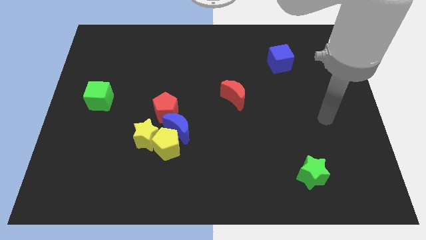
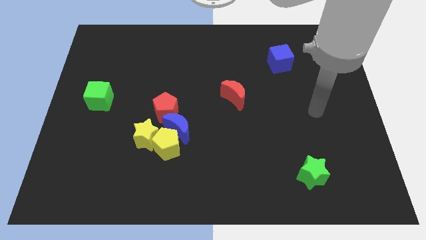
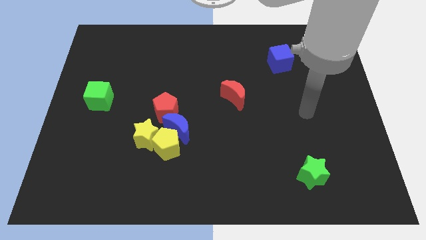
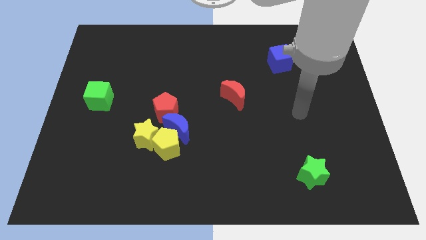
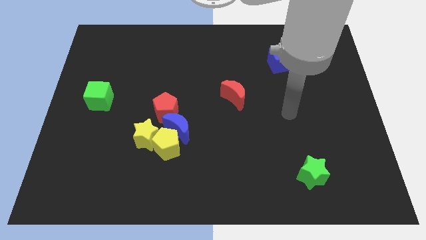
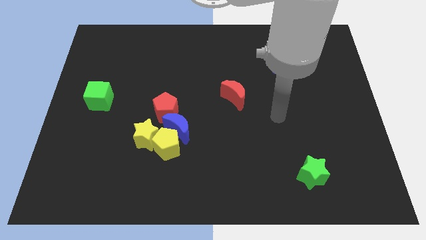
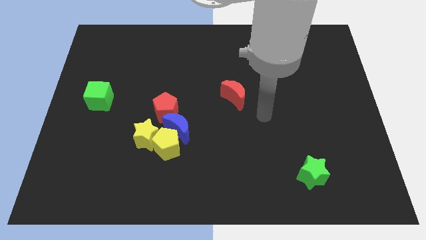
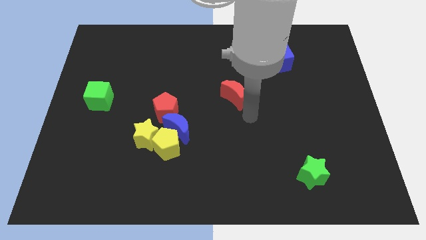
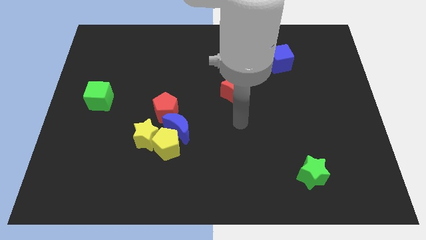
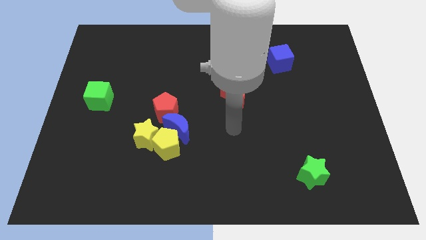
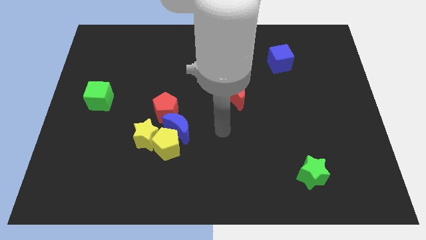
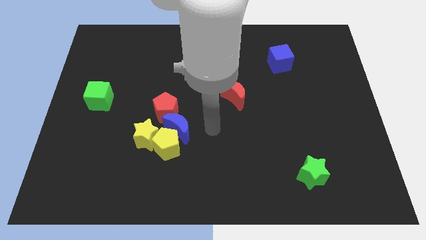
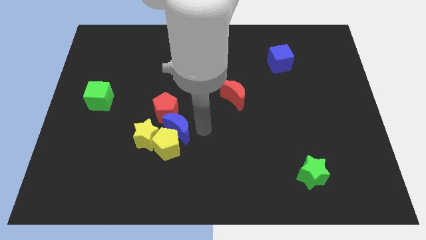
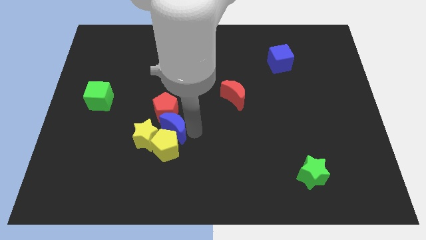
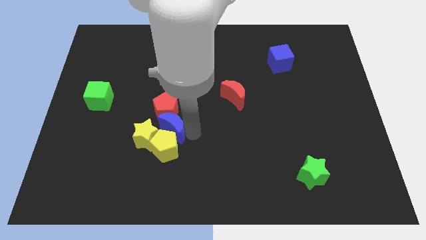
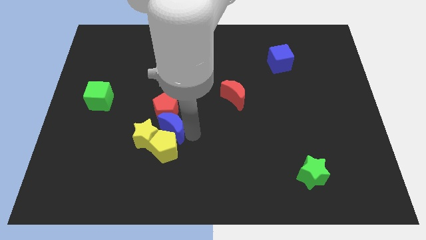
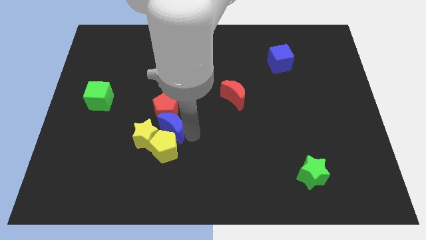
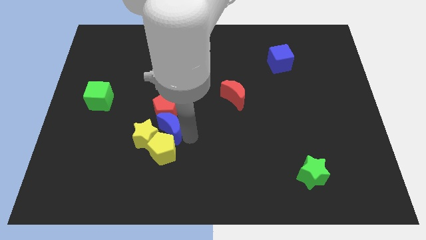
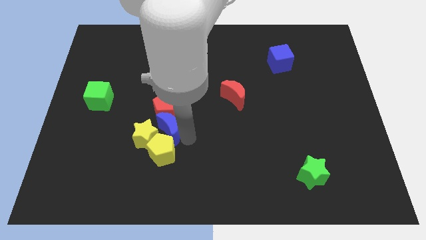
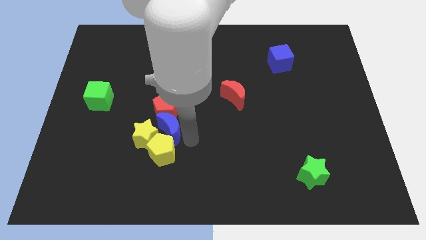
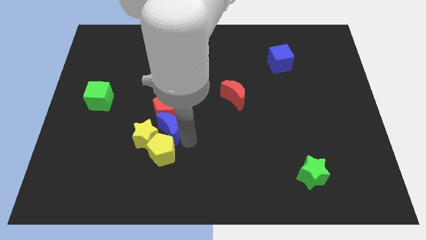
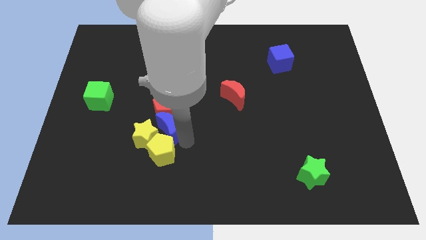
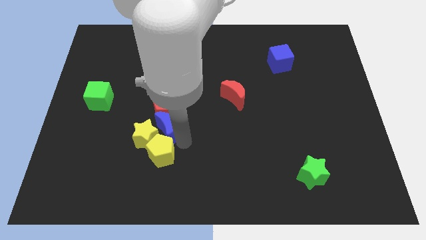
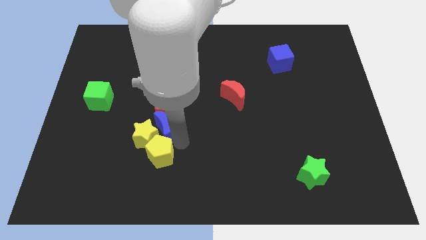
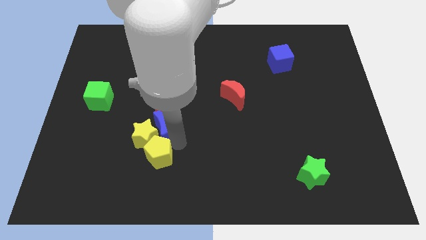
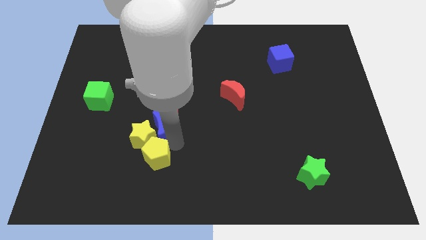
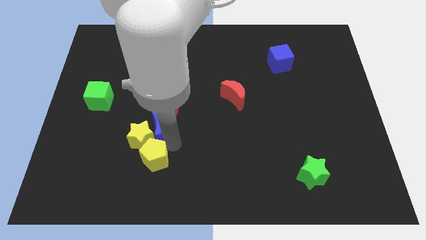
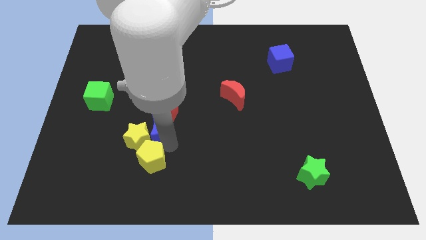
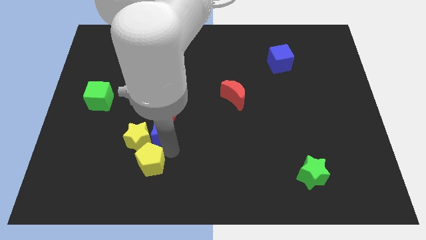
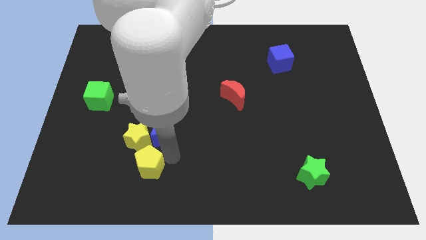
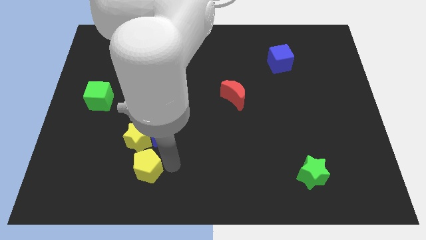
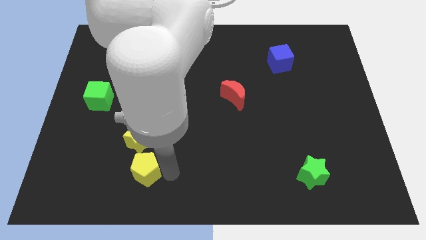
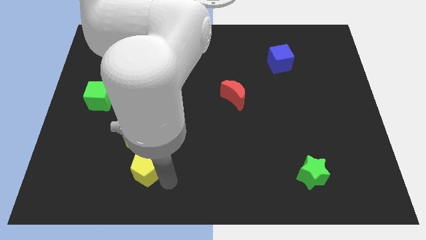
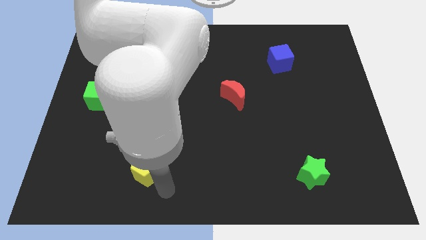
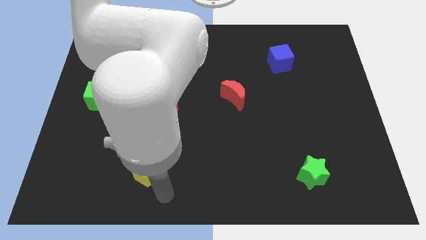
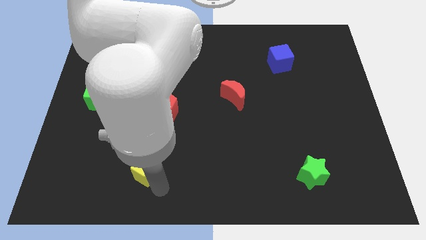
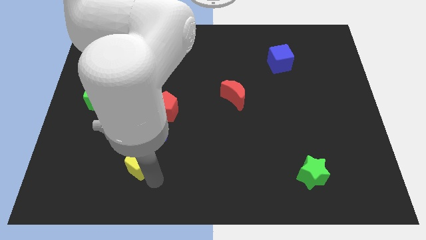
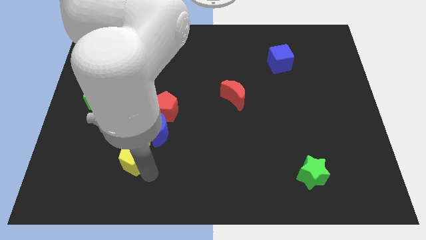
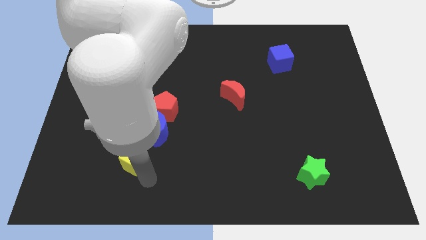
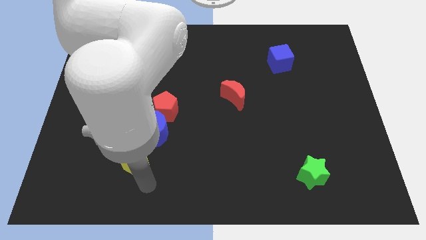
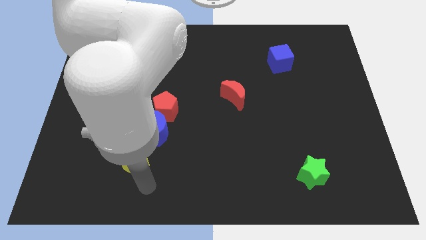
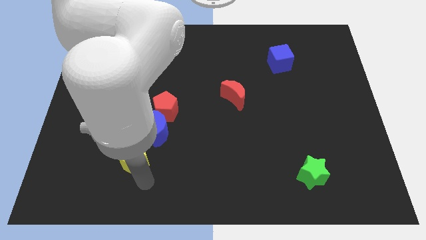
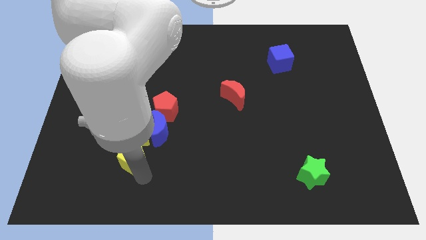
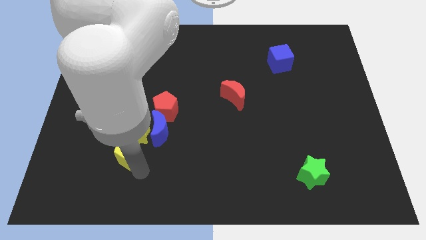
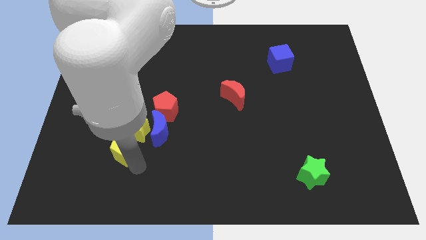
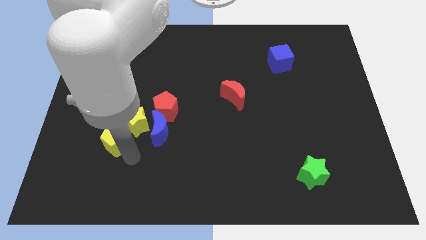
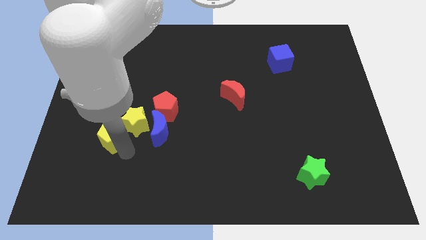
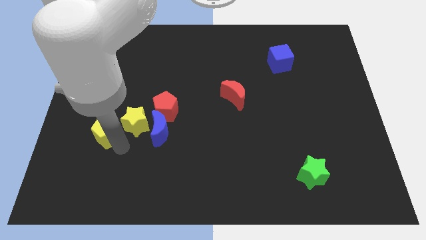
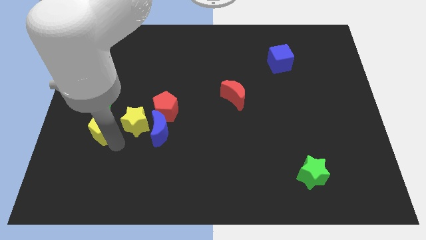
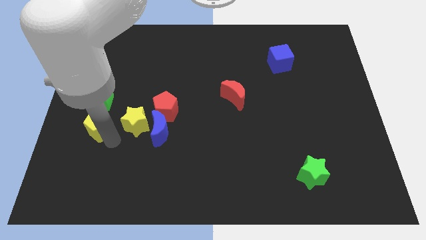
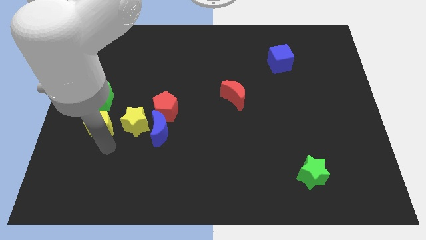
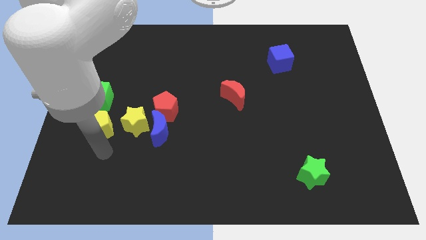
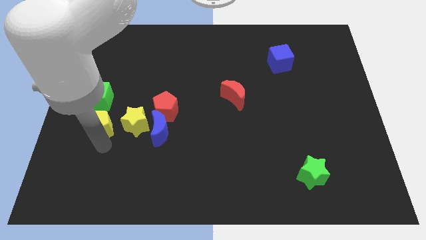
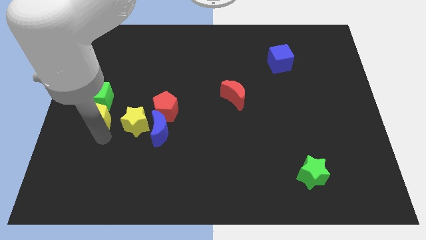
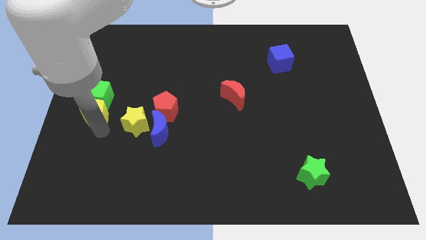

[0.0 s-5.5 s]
push the yellow pentagon towards the green cube

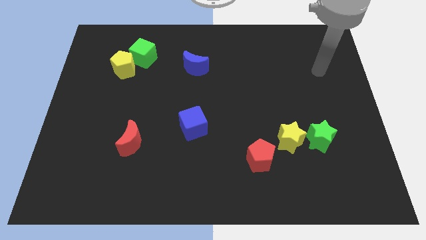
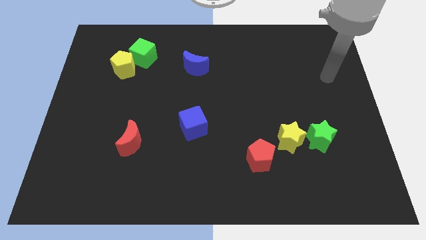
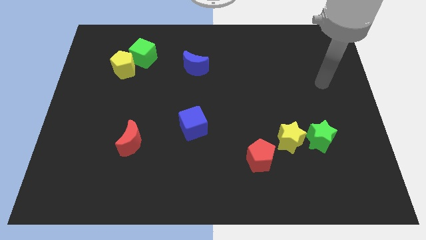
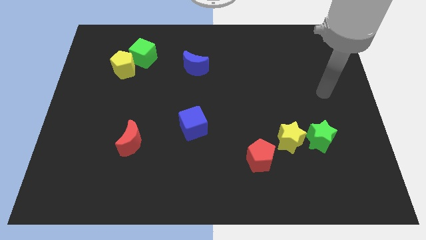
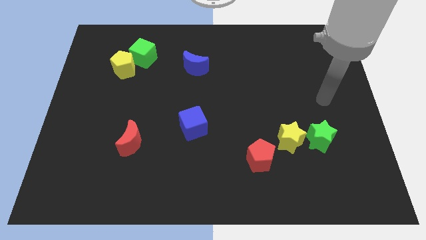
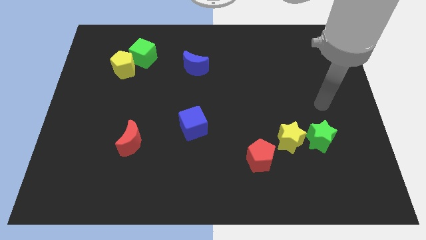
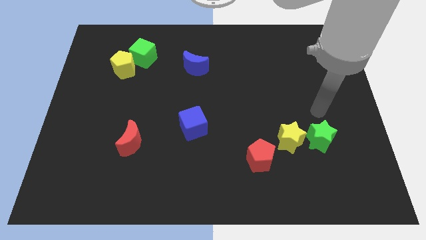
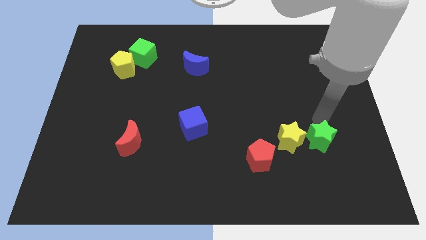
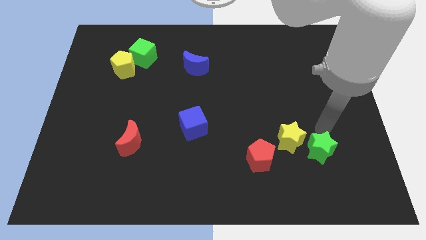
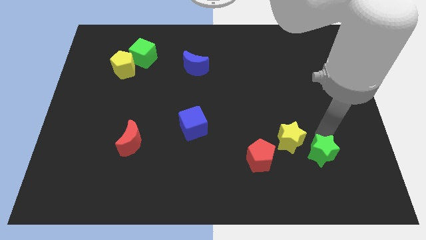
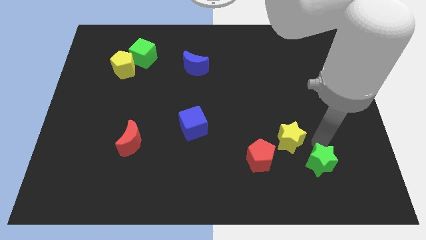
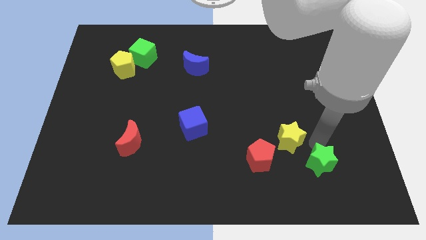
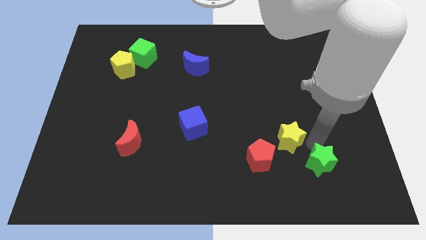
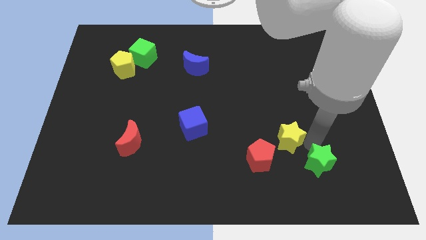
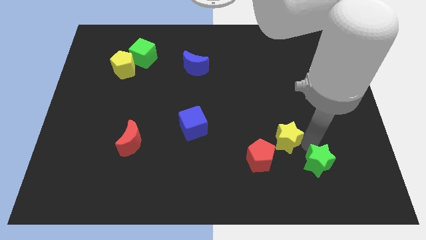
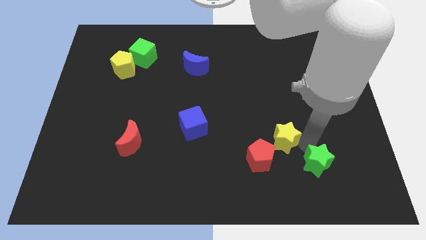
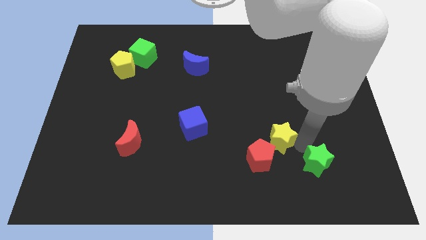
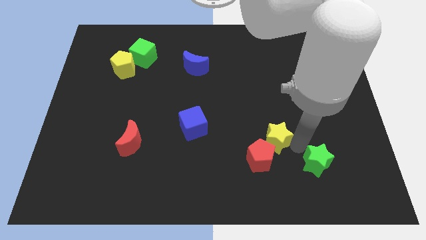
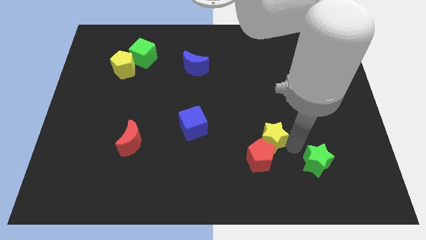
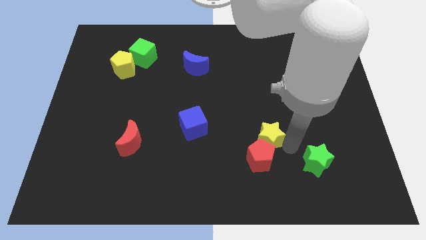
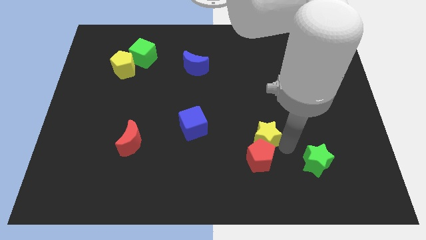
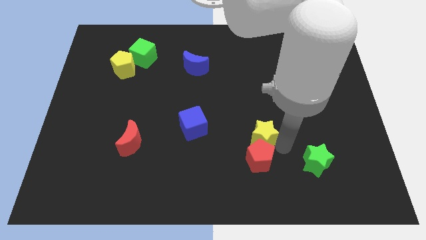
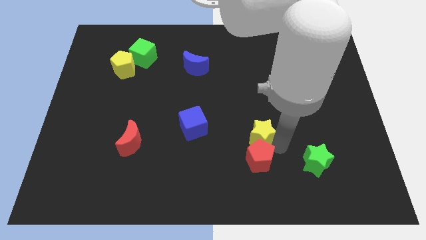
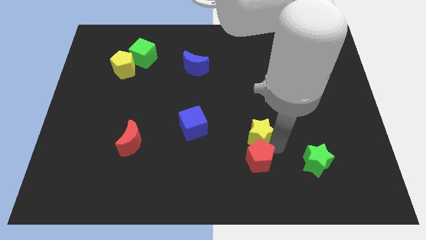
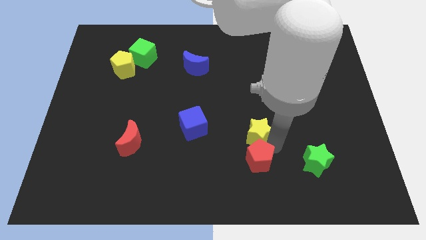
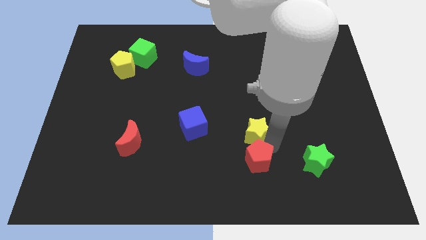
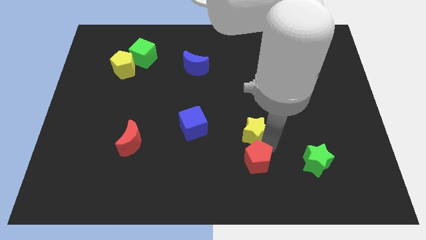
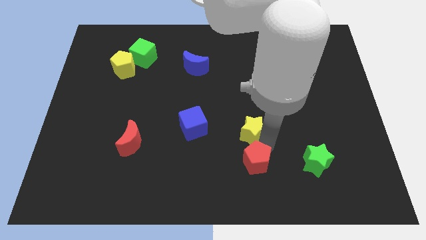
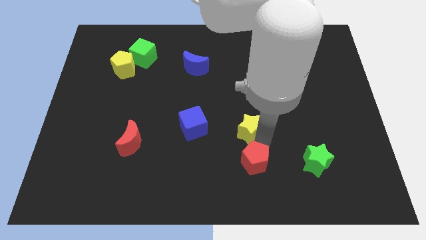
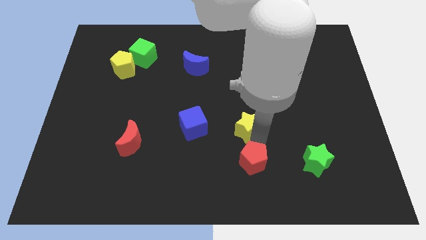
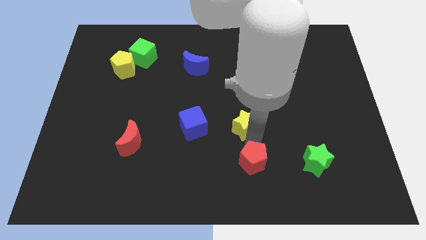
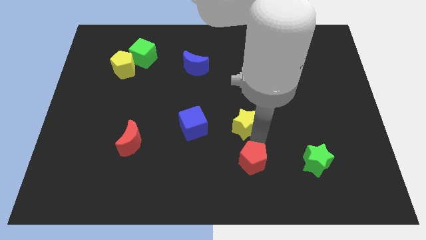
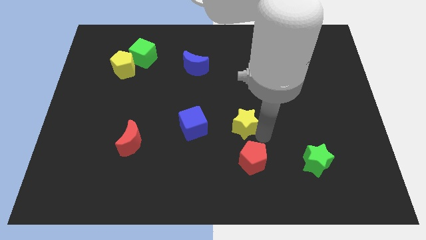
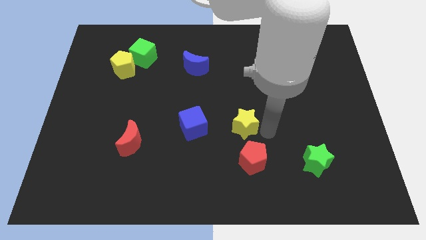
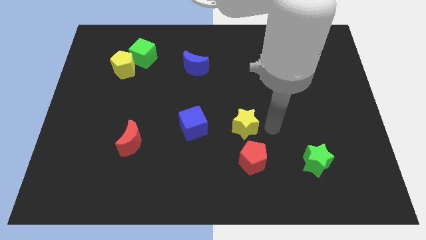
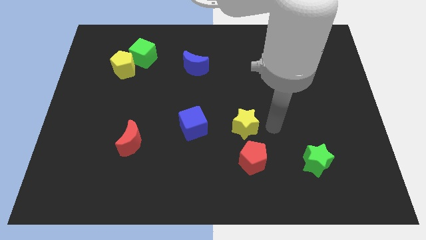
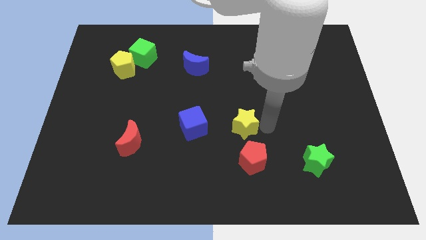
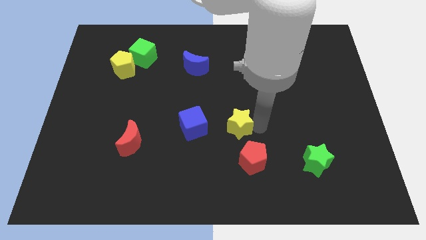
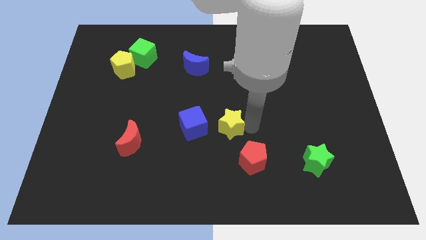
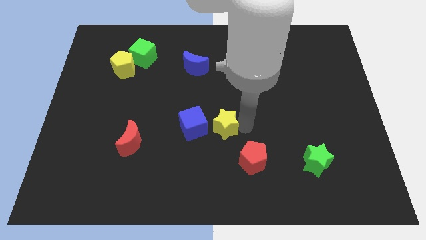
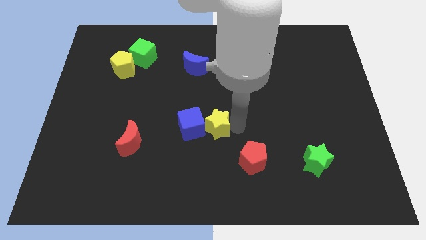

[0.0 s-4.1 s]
push the yellow star to the blue cube
